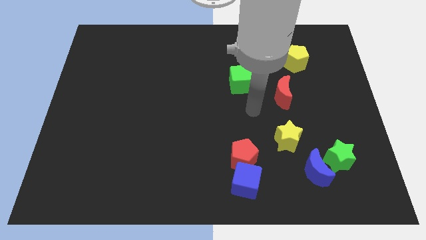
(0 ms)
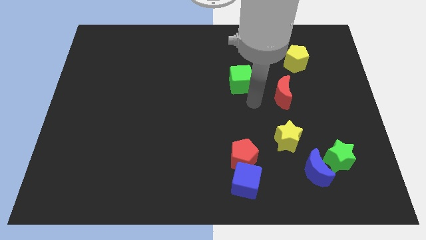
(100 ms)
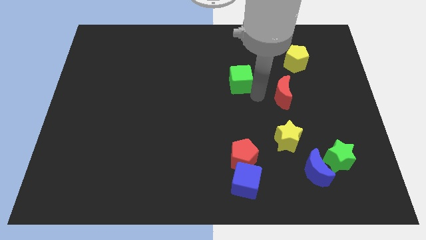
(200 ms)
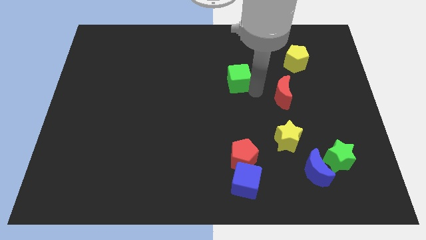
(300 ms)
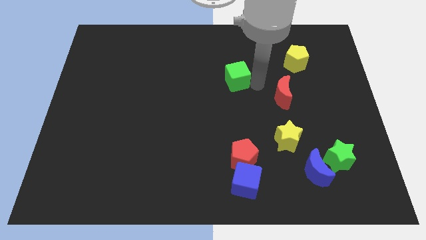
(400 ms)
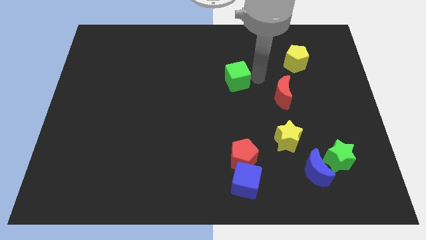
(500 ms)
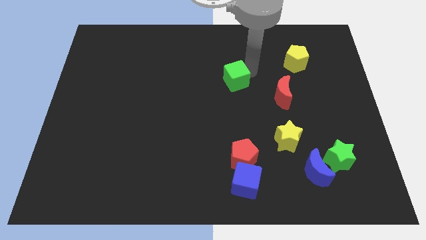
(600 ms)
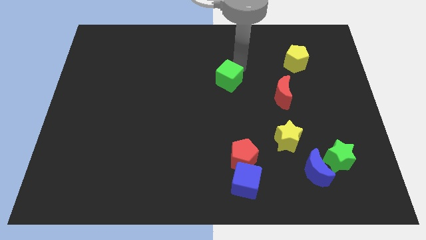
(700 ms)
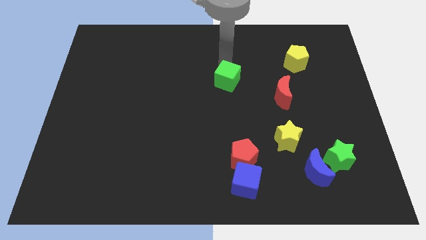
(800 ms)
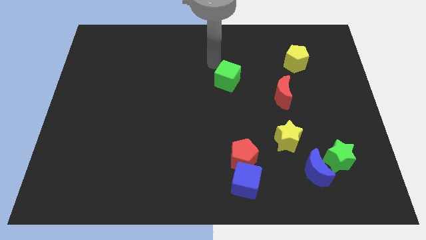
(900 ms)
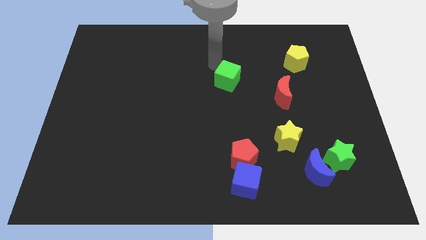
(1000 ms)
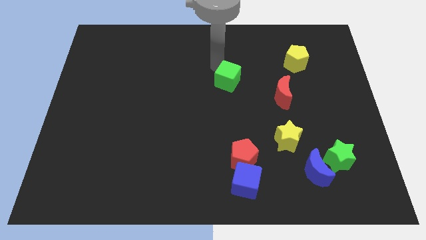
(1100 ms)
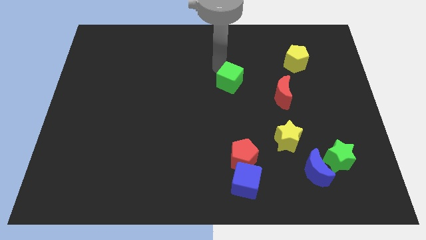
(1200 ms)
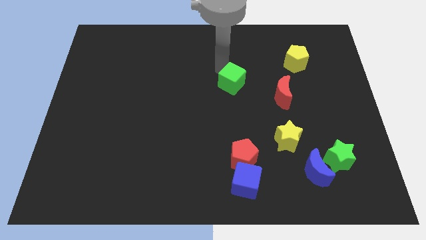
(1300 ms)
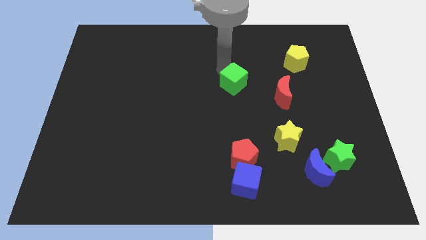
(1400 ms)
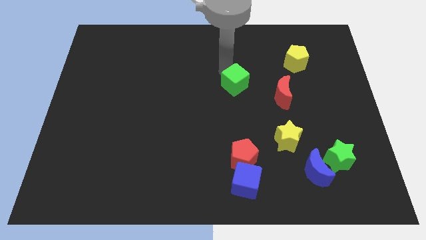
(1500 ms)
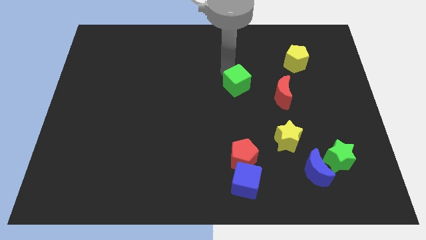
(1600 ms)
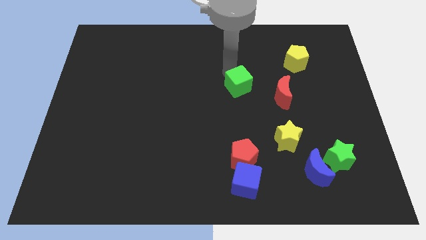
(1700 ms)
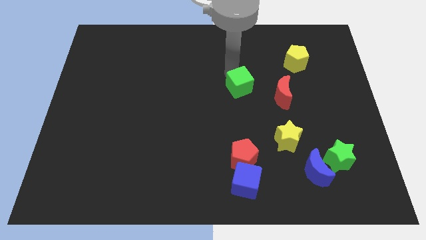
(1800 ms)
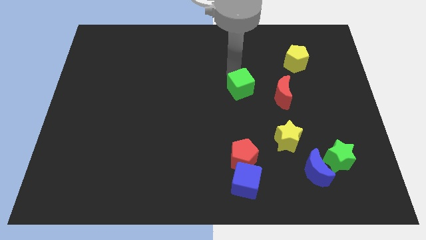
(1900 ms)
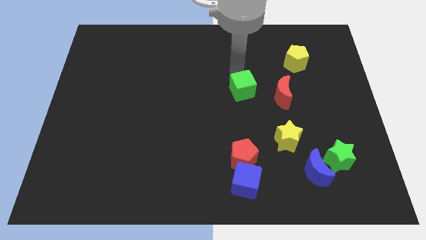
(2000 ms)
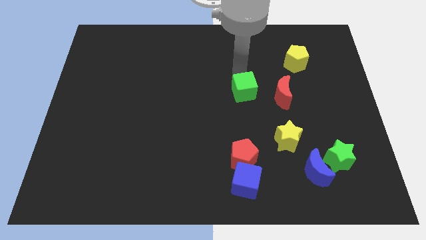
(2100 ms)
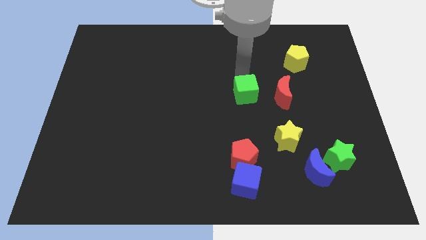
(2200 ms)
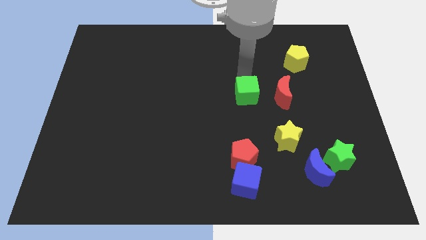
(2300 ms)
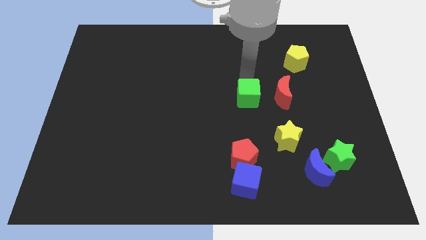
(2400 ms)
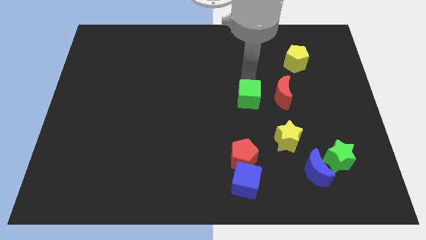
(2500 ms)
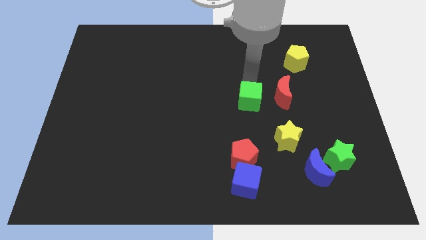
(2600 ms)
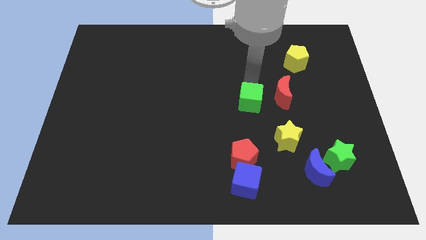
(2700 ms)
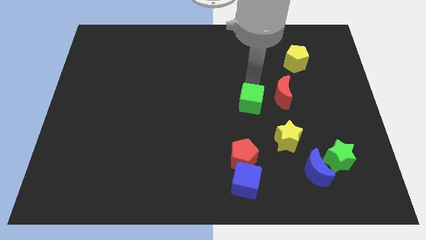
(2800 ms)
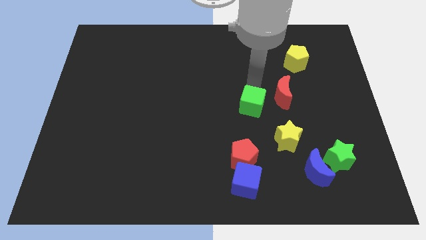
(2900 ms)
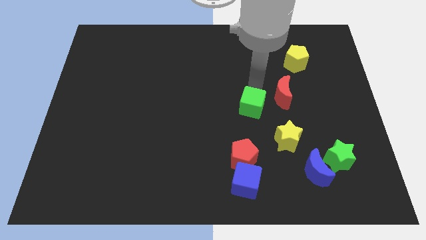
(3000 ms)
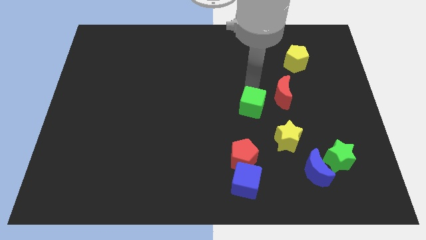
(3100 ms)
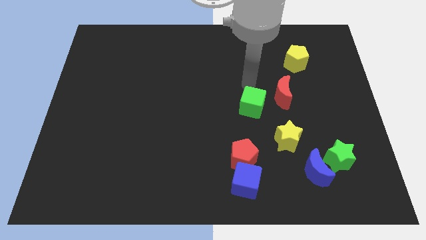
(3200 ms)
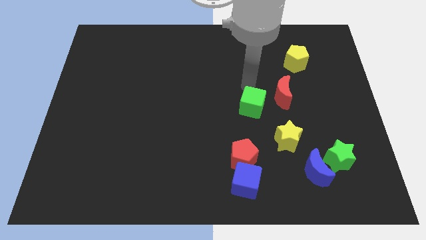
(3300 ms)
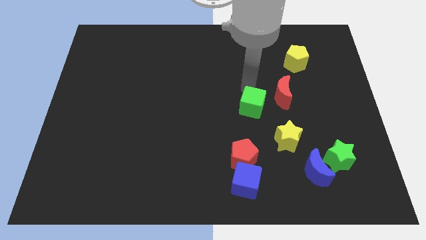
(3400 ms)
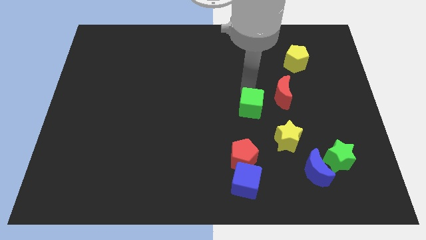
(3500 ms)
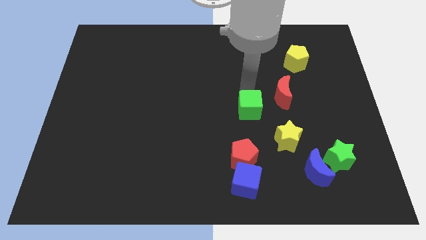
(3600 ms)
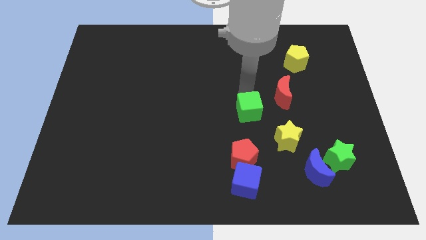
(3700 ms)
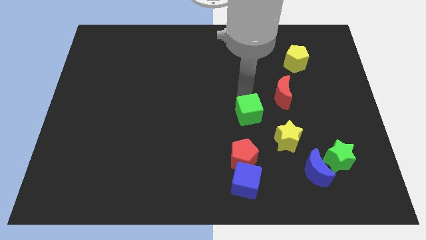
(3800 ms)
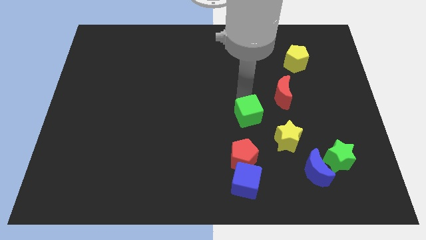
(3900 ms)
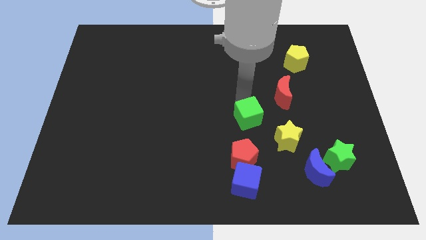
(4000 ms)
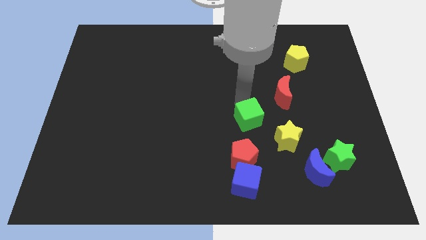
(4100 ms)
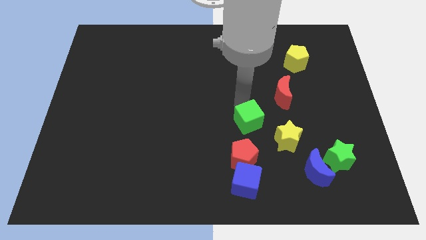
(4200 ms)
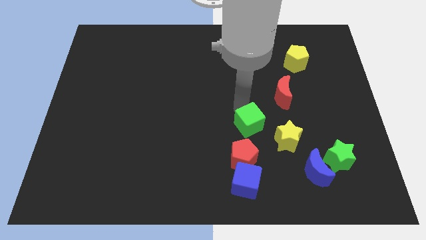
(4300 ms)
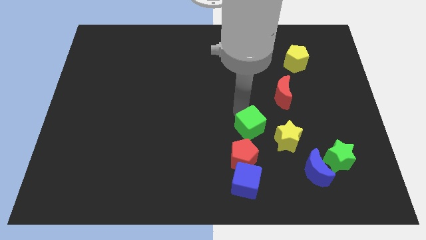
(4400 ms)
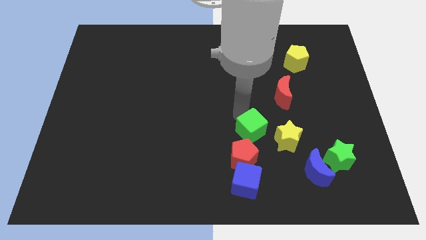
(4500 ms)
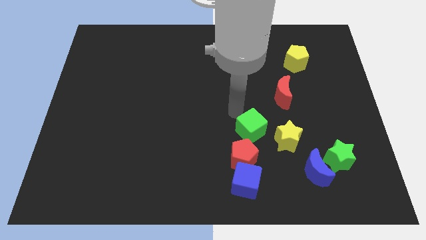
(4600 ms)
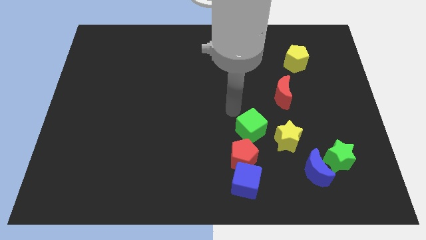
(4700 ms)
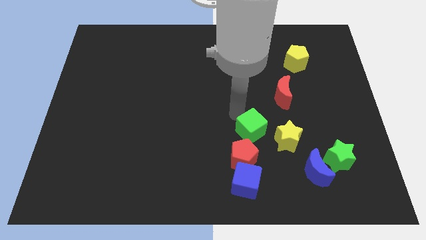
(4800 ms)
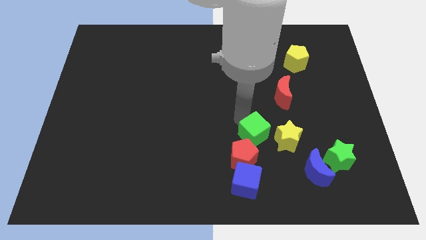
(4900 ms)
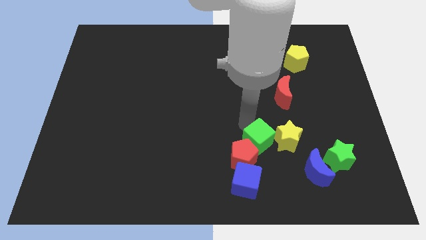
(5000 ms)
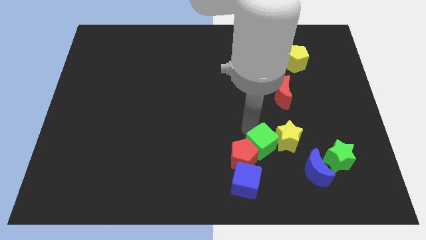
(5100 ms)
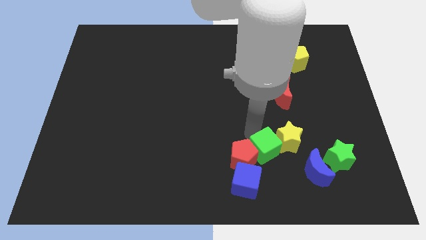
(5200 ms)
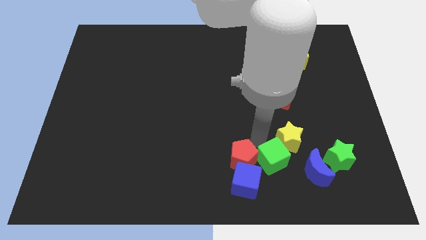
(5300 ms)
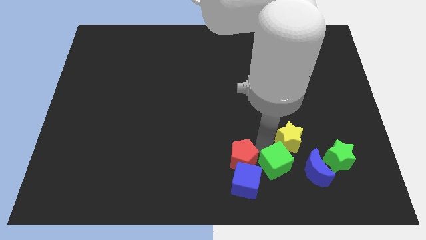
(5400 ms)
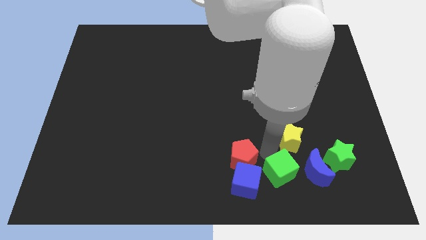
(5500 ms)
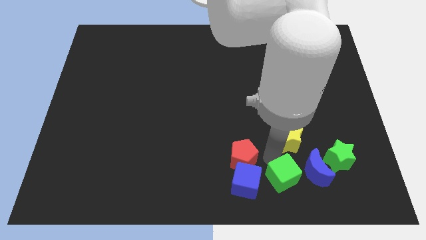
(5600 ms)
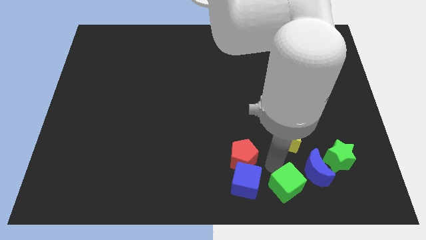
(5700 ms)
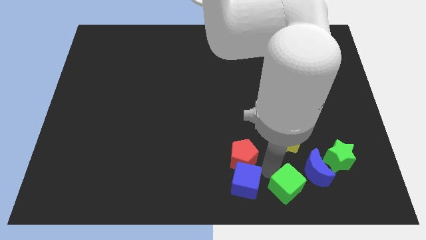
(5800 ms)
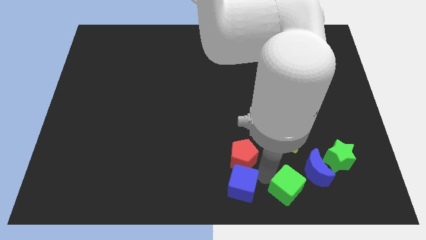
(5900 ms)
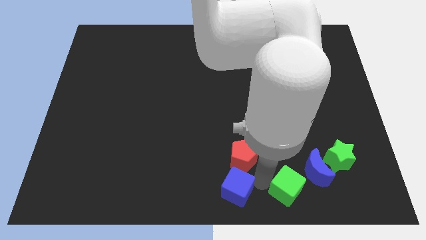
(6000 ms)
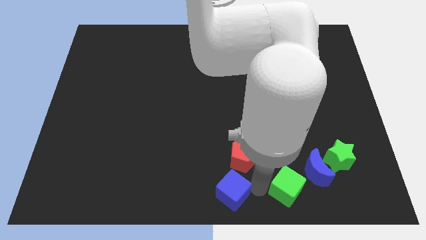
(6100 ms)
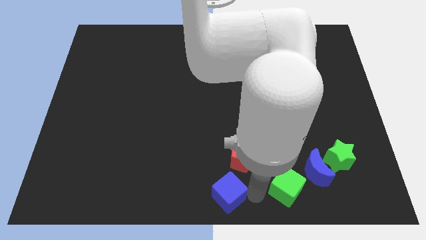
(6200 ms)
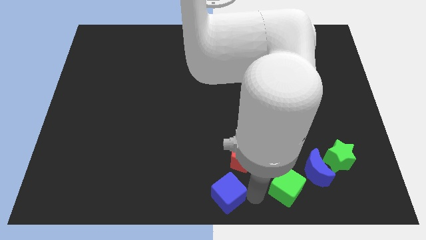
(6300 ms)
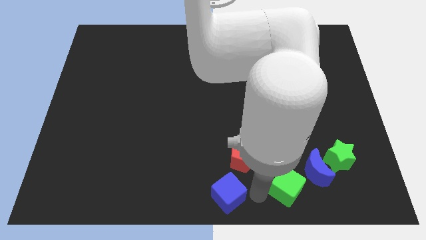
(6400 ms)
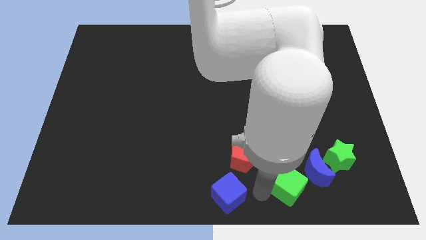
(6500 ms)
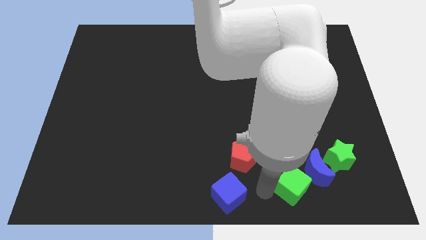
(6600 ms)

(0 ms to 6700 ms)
slide the green cube to the bottom left side of the green star
